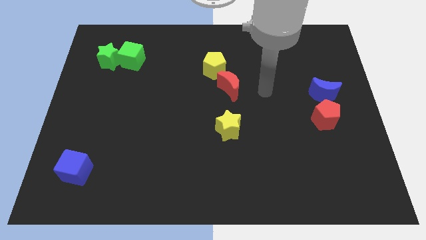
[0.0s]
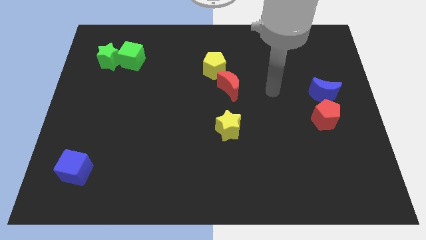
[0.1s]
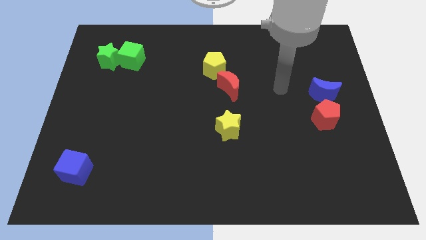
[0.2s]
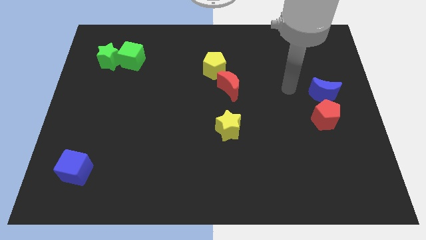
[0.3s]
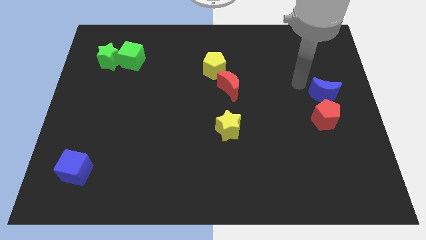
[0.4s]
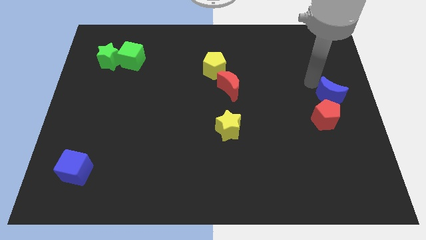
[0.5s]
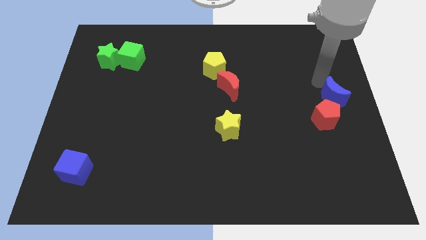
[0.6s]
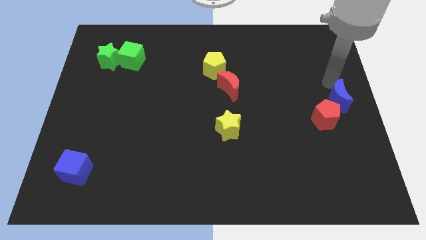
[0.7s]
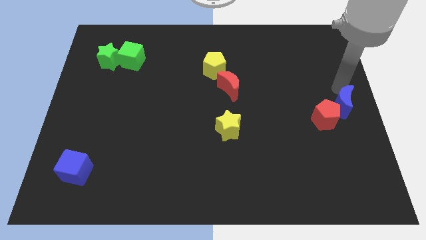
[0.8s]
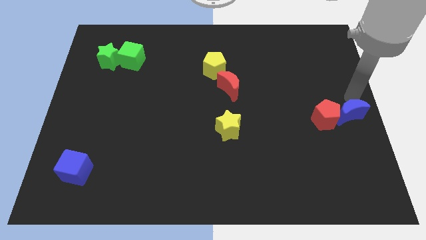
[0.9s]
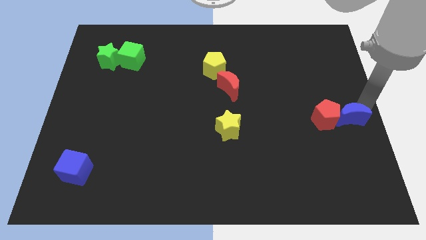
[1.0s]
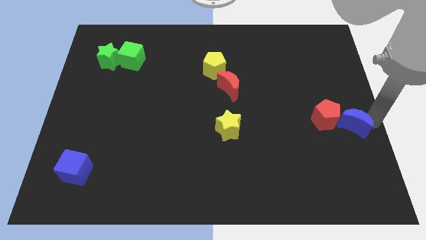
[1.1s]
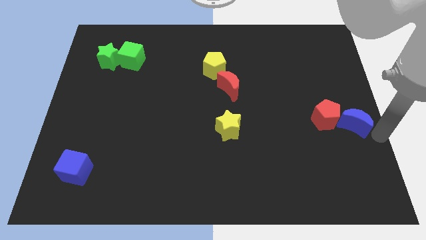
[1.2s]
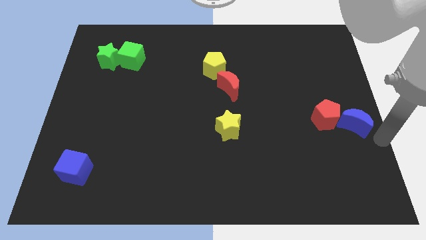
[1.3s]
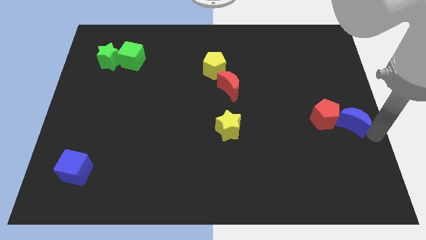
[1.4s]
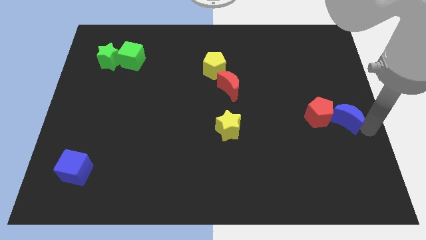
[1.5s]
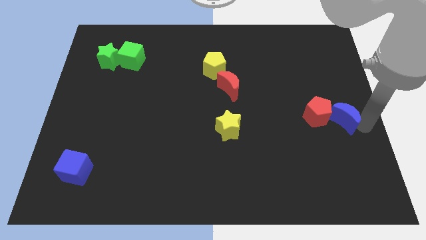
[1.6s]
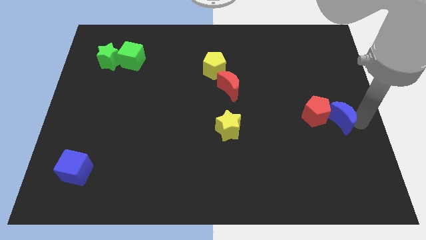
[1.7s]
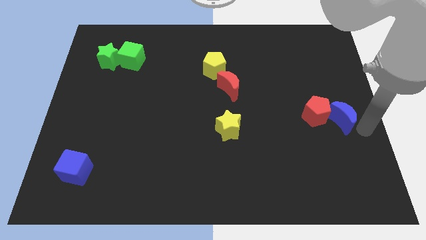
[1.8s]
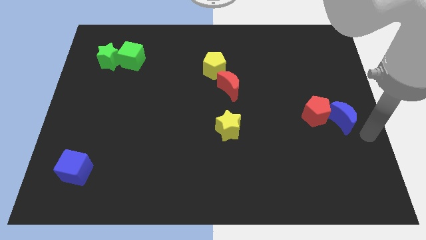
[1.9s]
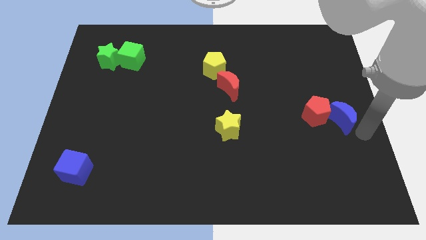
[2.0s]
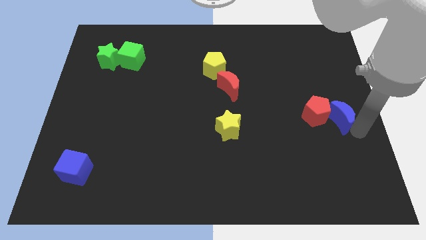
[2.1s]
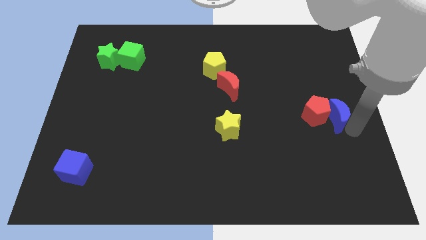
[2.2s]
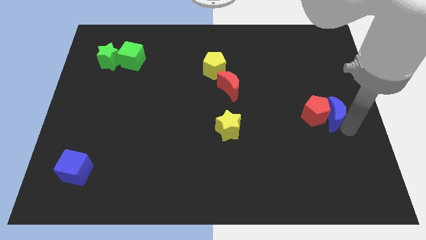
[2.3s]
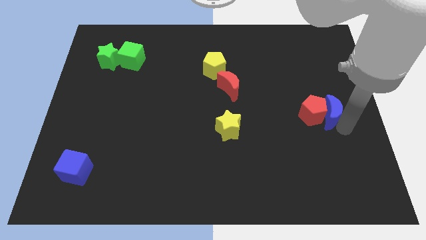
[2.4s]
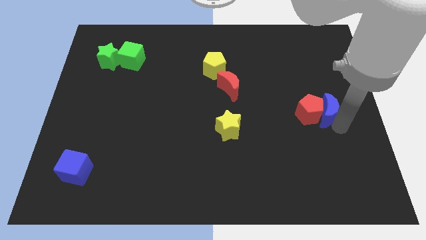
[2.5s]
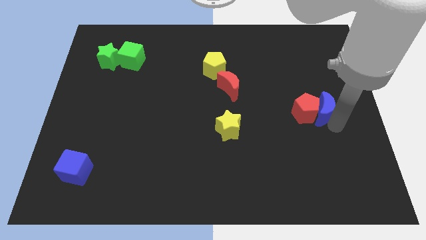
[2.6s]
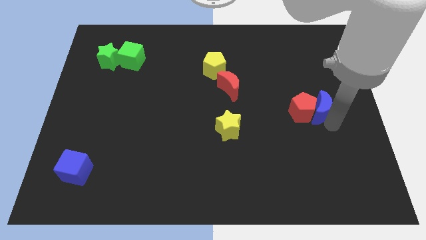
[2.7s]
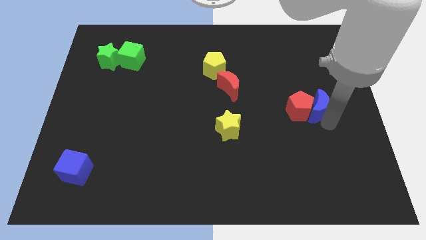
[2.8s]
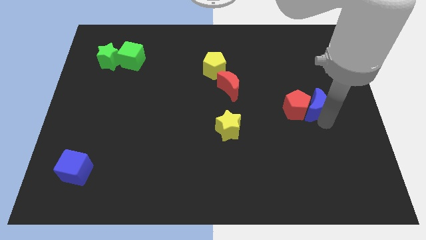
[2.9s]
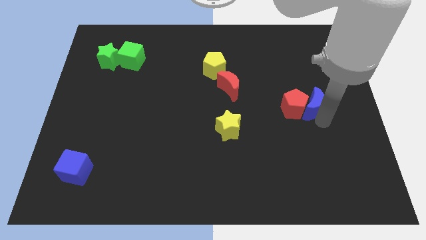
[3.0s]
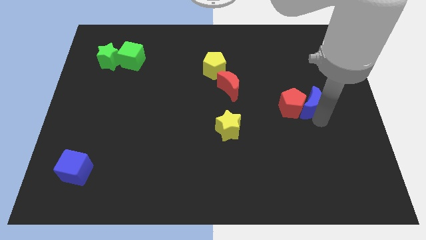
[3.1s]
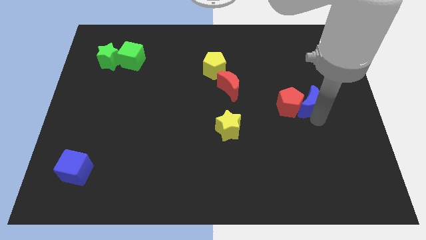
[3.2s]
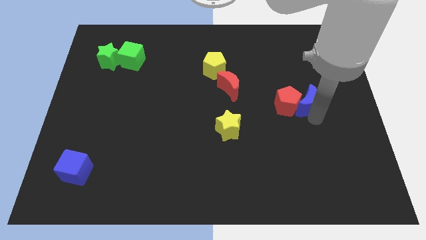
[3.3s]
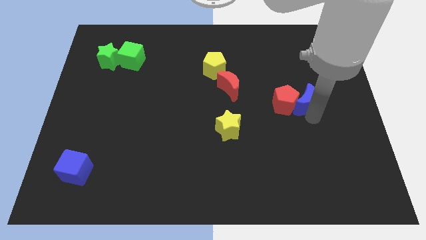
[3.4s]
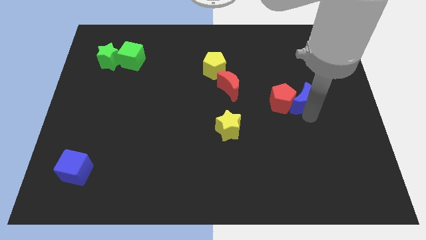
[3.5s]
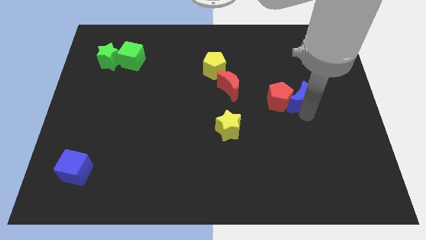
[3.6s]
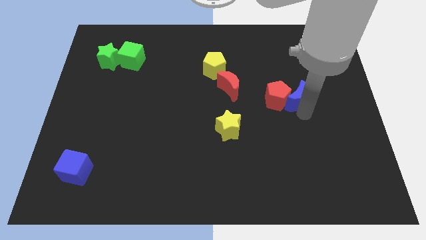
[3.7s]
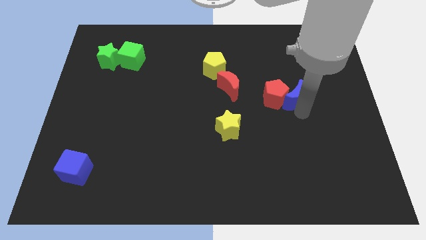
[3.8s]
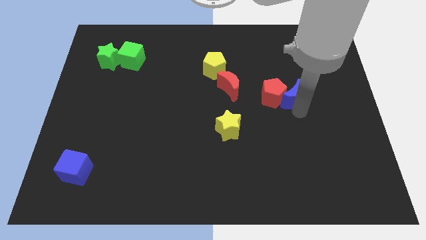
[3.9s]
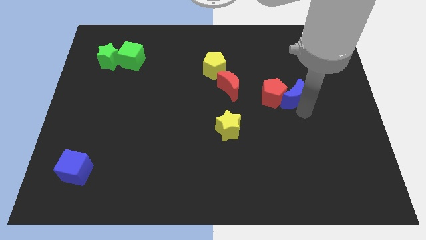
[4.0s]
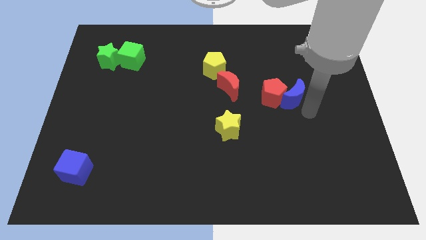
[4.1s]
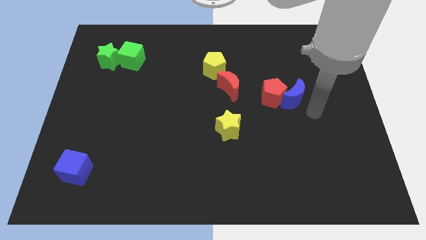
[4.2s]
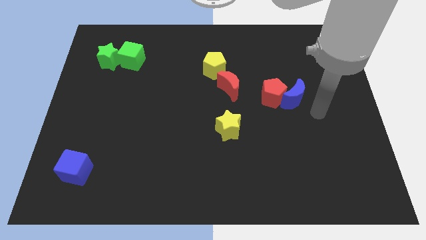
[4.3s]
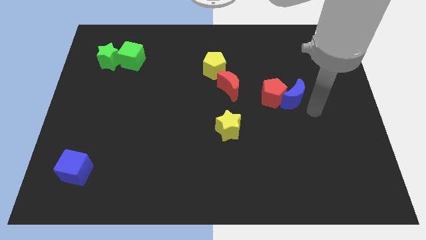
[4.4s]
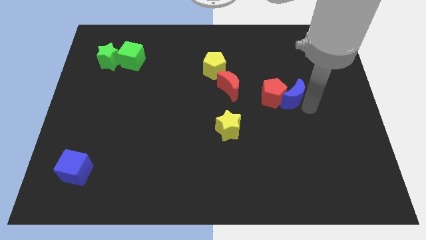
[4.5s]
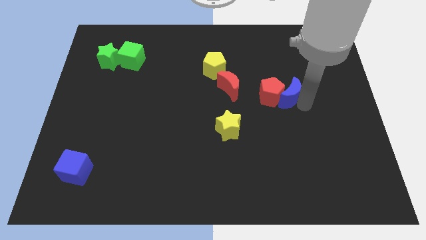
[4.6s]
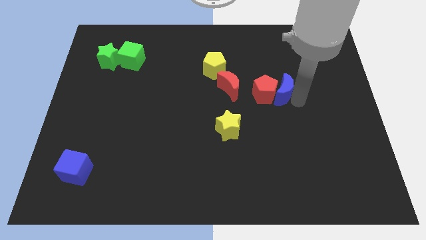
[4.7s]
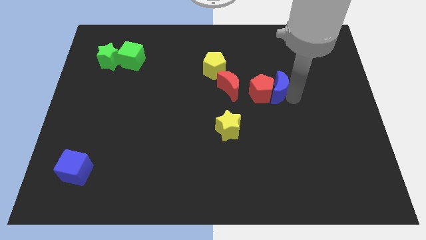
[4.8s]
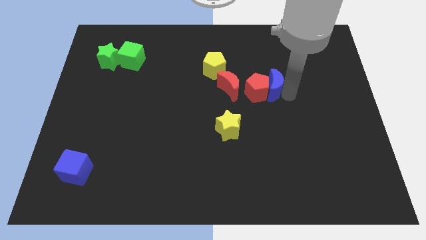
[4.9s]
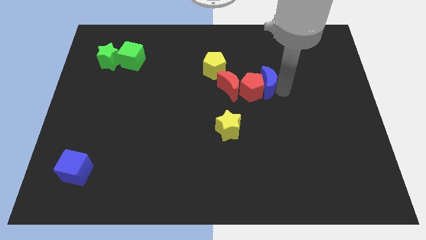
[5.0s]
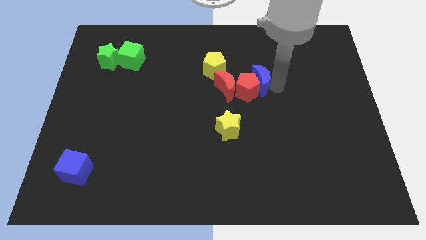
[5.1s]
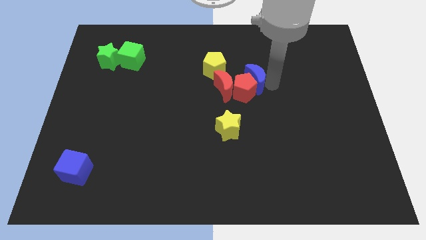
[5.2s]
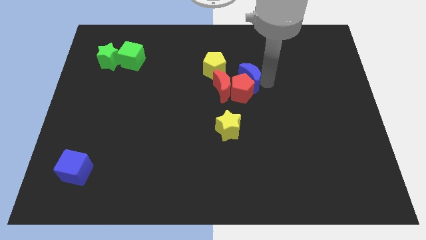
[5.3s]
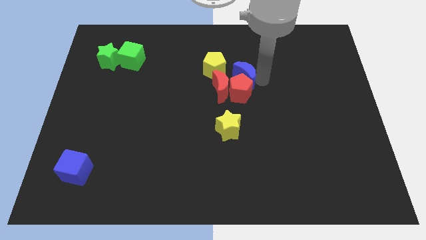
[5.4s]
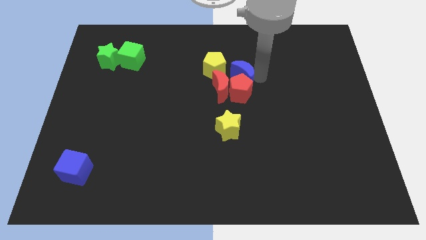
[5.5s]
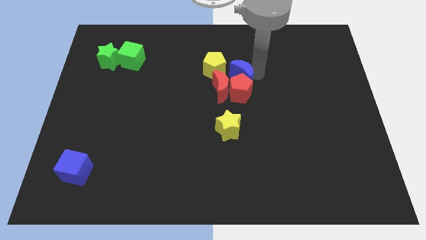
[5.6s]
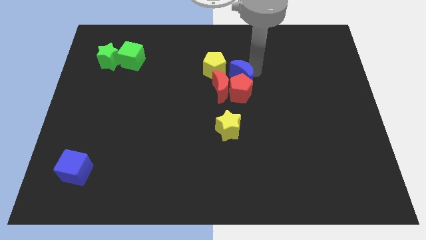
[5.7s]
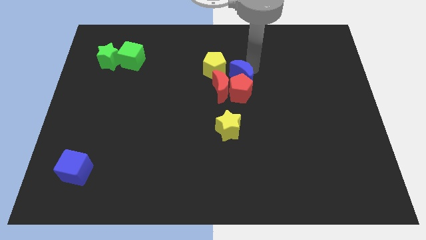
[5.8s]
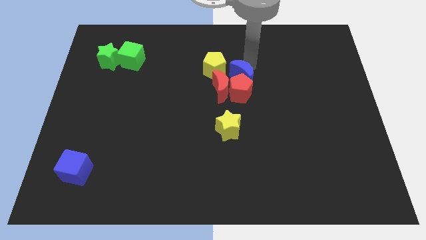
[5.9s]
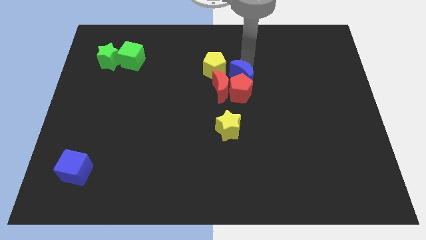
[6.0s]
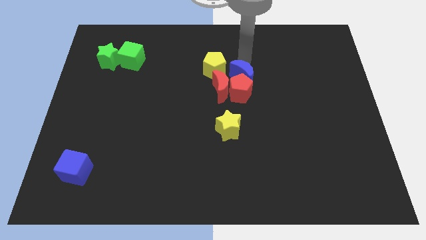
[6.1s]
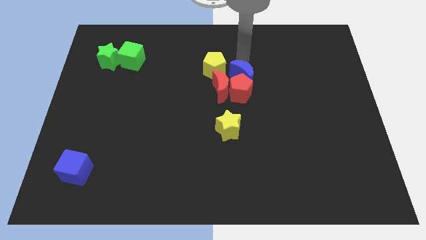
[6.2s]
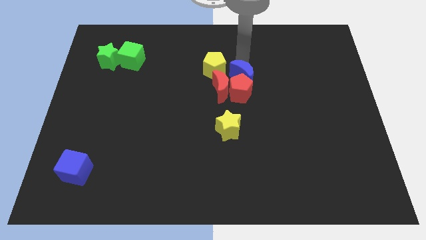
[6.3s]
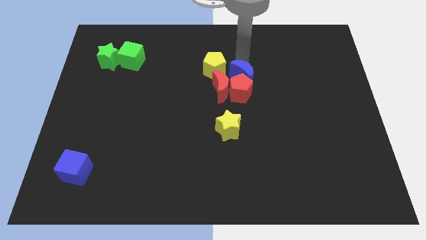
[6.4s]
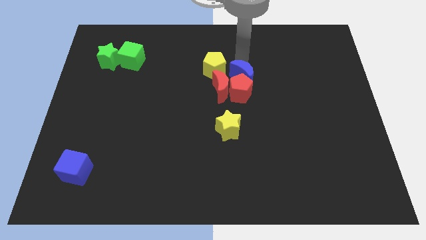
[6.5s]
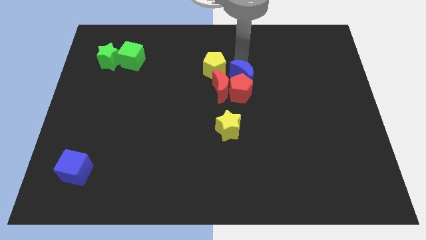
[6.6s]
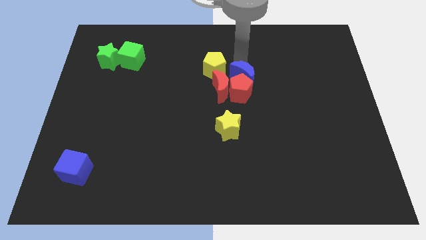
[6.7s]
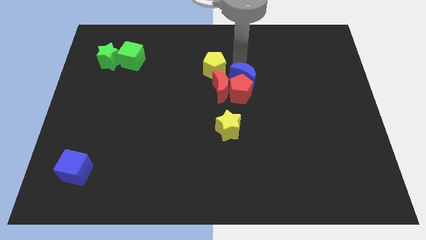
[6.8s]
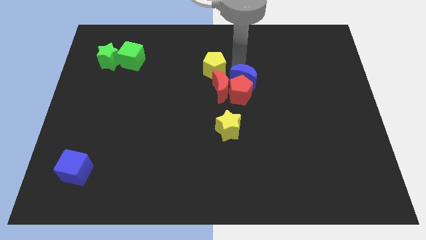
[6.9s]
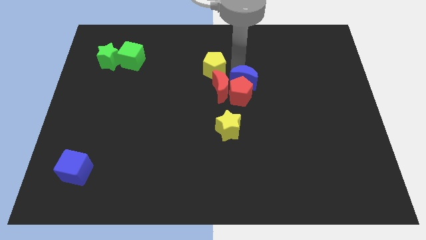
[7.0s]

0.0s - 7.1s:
put the blue moon towards the red moon
